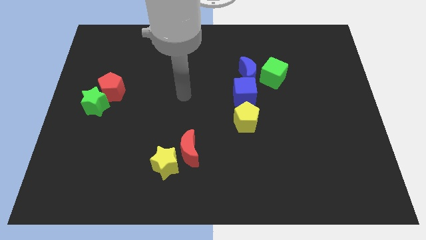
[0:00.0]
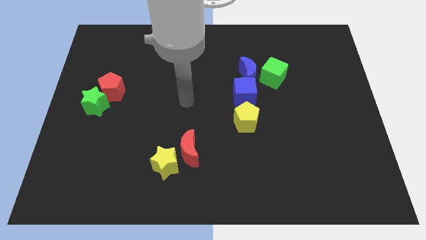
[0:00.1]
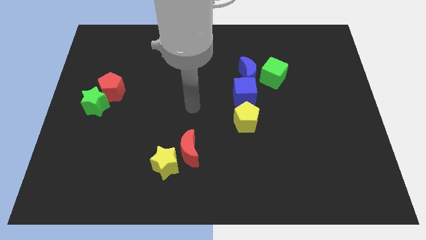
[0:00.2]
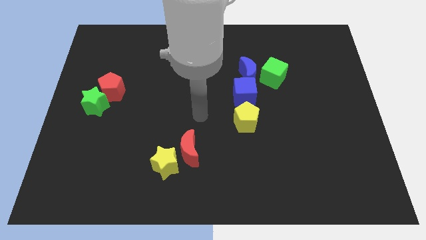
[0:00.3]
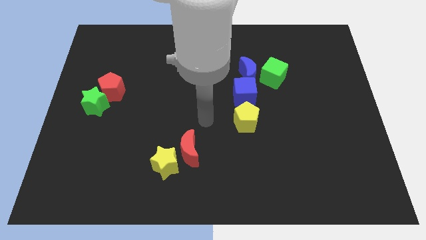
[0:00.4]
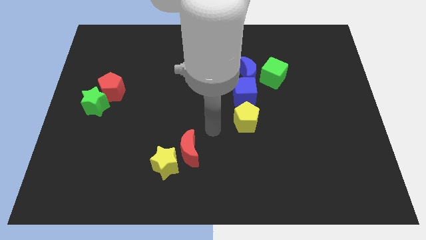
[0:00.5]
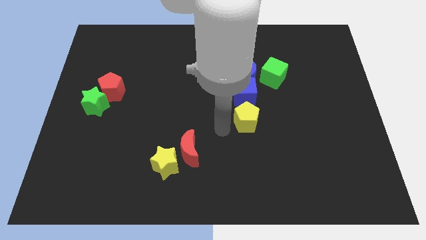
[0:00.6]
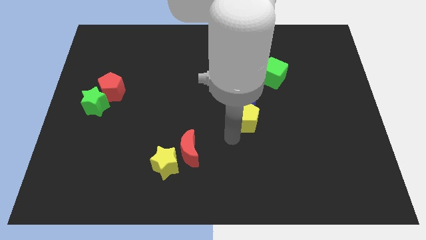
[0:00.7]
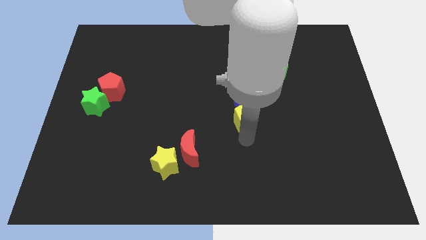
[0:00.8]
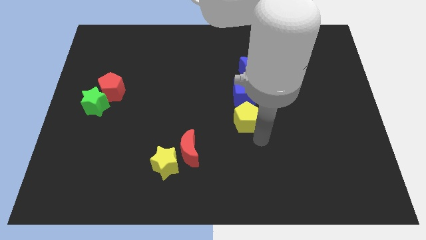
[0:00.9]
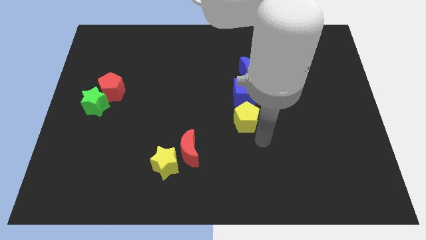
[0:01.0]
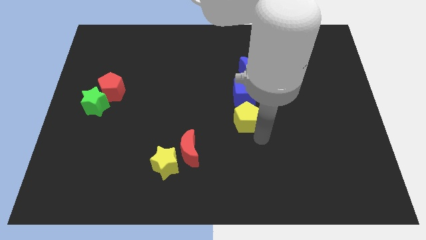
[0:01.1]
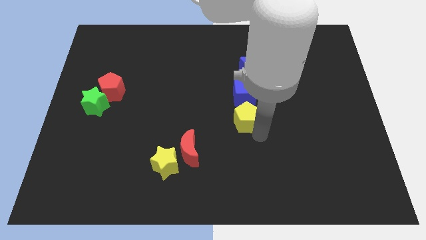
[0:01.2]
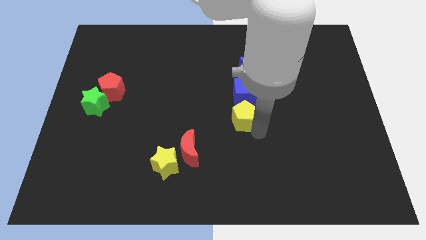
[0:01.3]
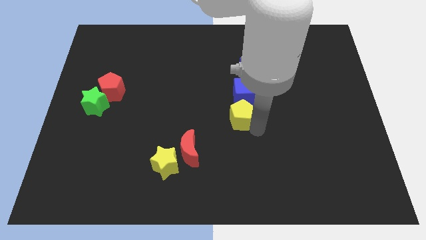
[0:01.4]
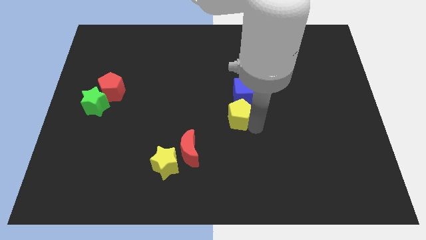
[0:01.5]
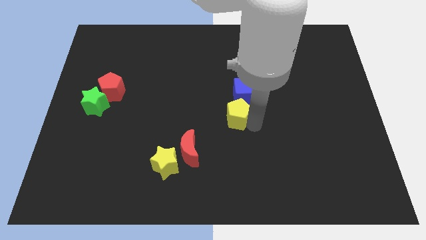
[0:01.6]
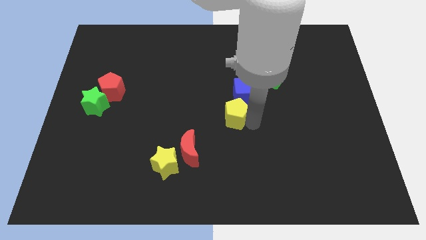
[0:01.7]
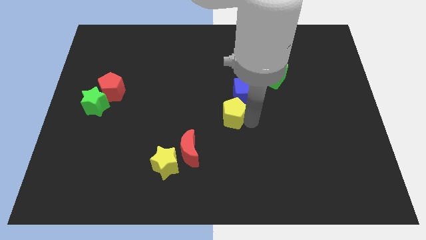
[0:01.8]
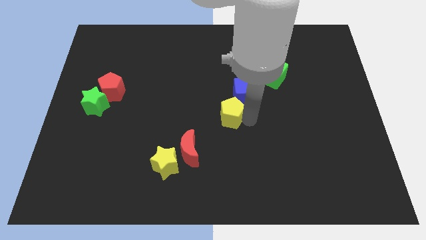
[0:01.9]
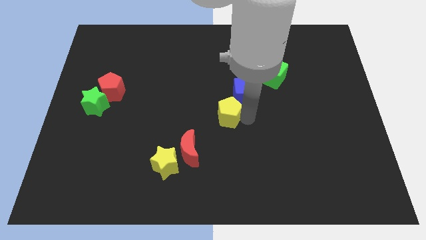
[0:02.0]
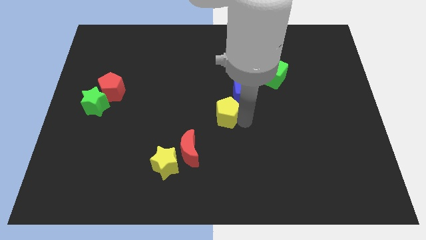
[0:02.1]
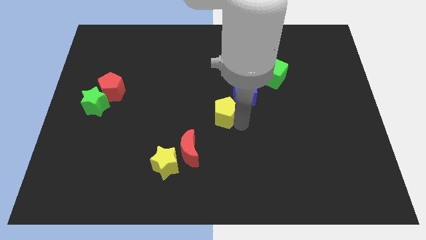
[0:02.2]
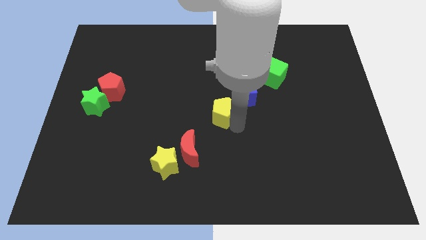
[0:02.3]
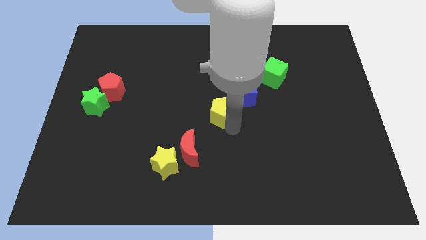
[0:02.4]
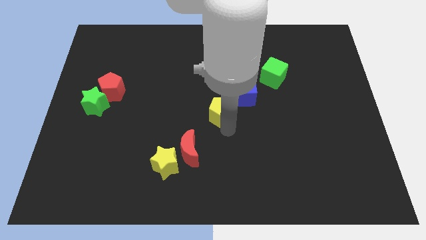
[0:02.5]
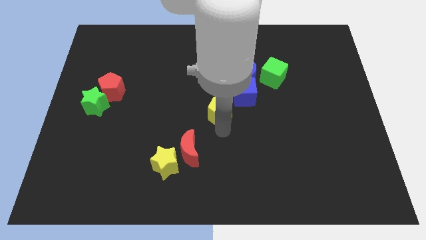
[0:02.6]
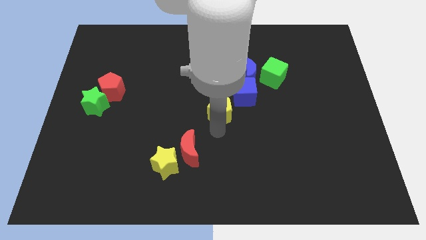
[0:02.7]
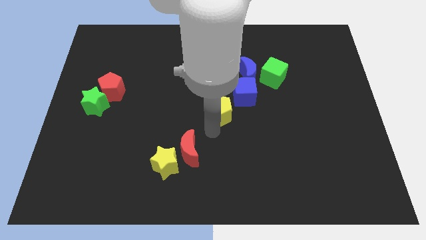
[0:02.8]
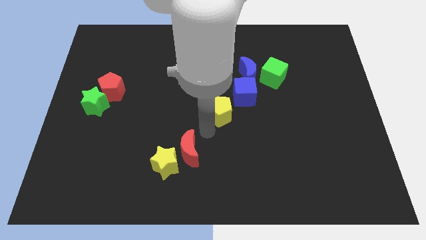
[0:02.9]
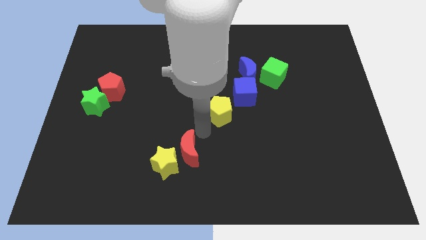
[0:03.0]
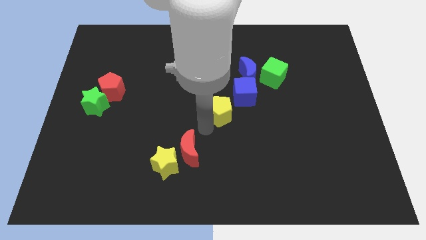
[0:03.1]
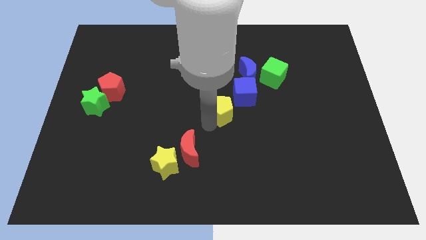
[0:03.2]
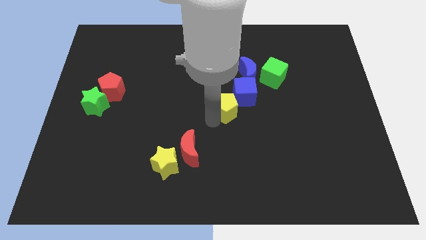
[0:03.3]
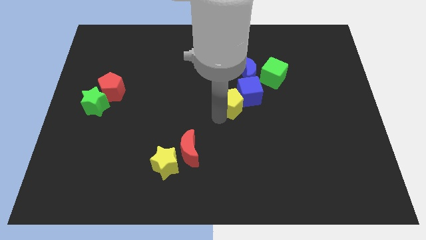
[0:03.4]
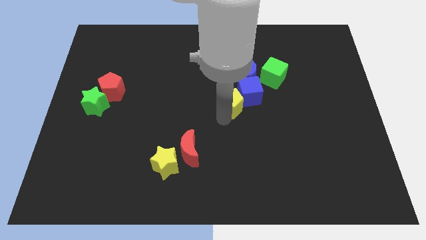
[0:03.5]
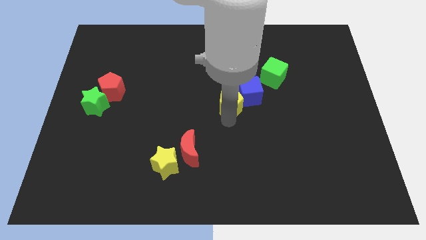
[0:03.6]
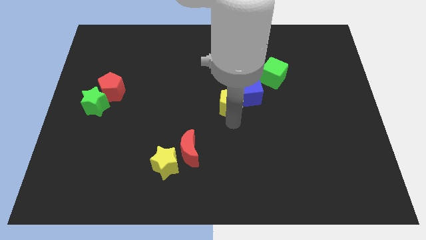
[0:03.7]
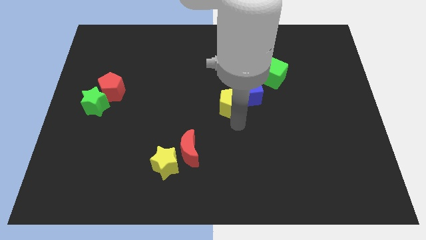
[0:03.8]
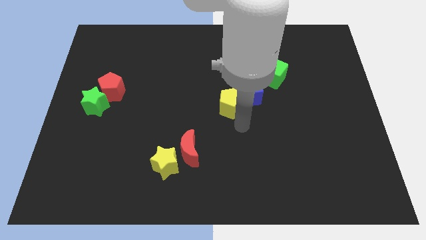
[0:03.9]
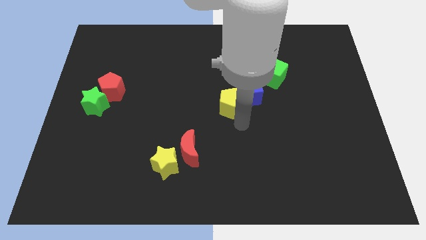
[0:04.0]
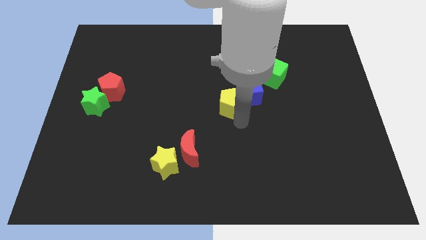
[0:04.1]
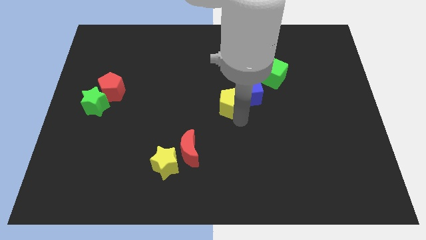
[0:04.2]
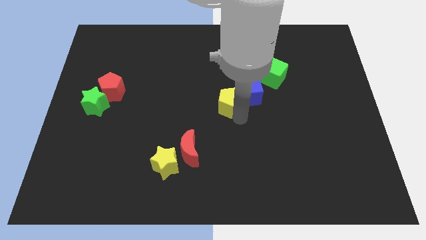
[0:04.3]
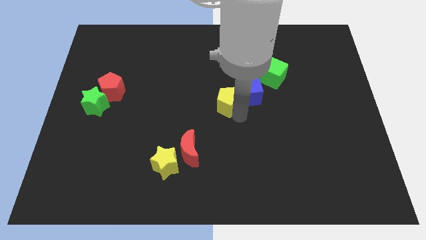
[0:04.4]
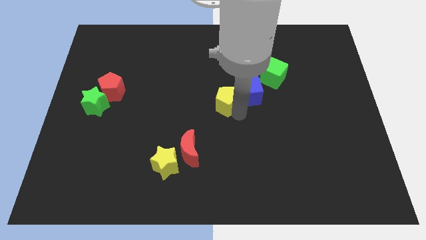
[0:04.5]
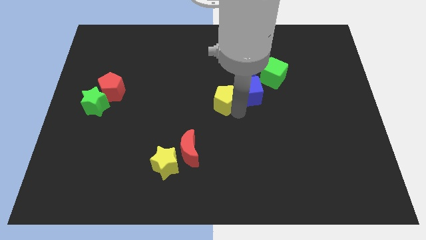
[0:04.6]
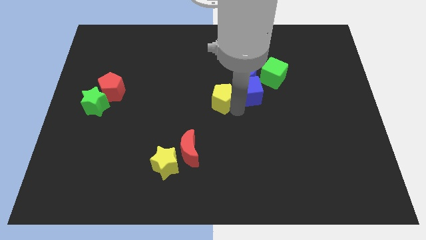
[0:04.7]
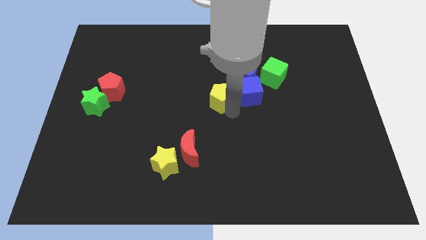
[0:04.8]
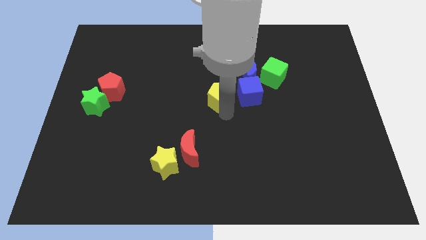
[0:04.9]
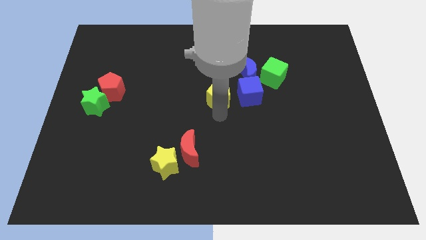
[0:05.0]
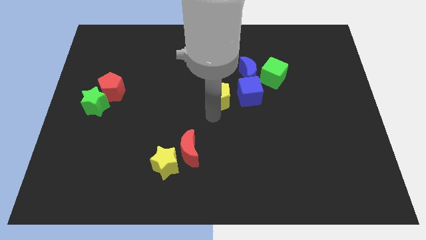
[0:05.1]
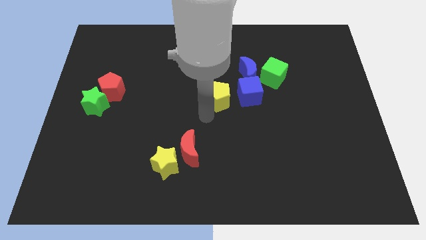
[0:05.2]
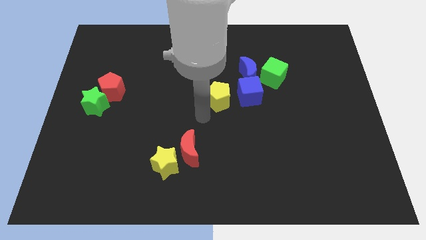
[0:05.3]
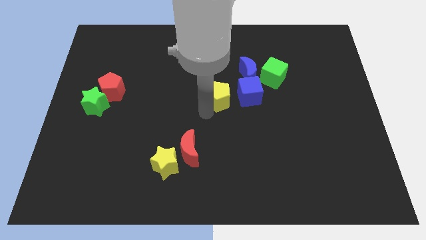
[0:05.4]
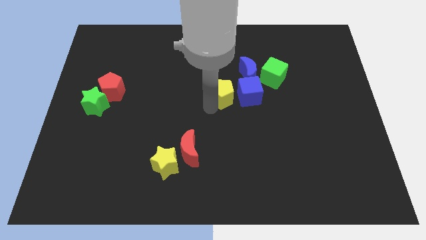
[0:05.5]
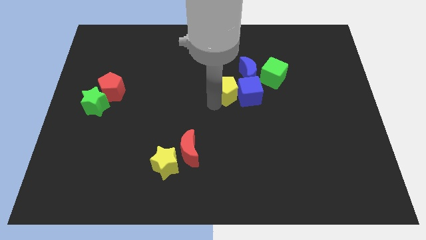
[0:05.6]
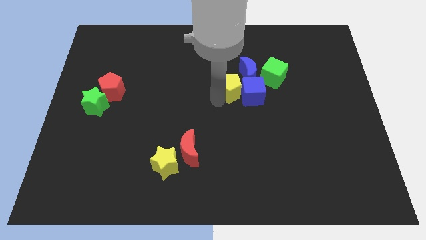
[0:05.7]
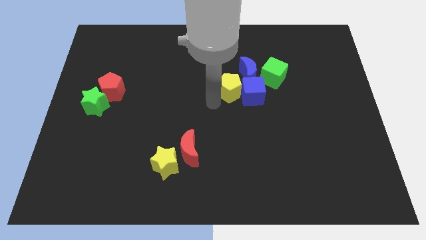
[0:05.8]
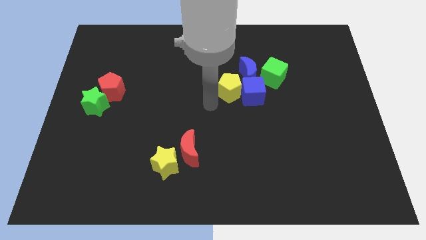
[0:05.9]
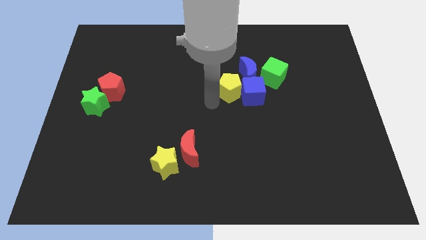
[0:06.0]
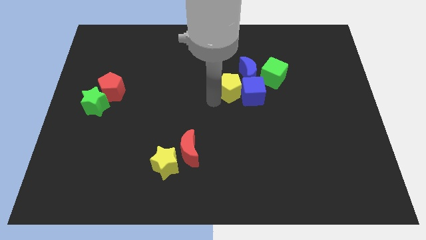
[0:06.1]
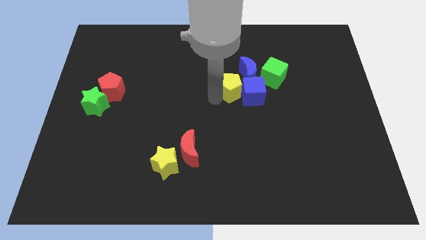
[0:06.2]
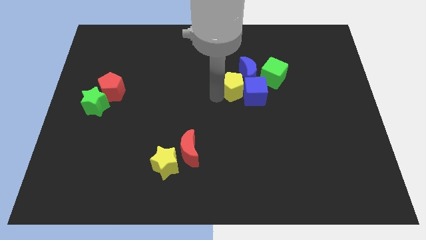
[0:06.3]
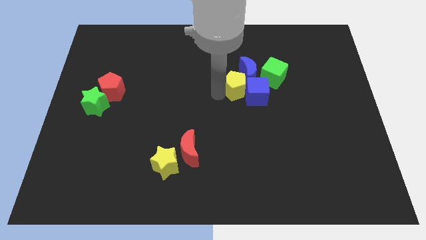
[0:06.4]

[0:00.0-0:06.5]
slide the yellow pentagon to the blue moon
